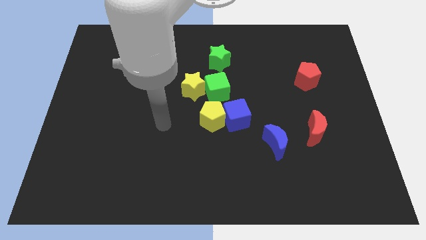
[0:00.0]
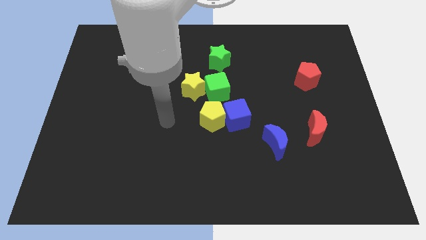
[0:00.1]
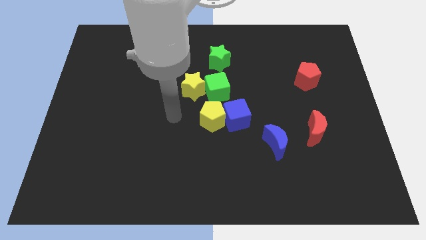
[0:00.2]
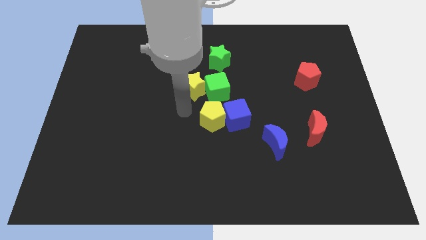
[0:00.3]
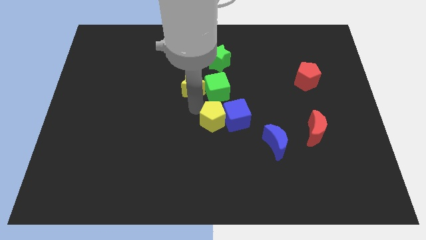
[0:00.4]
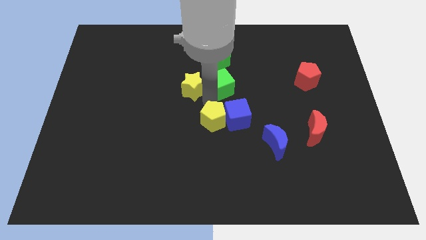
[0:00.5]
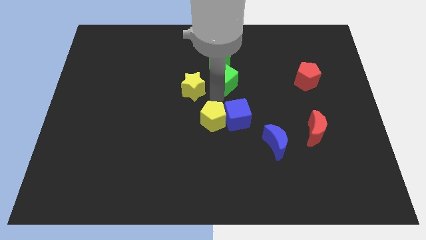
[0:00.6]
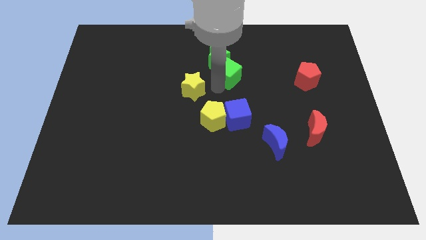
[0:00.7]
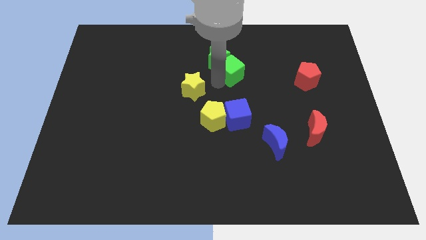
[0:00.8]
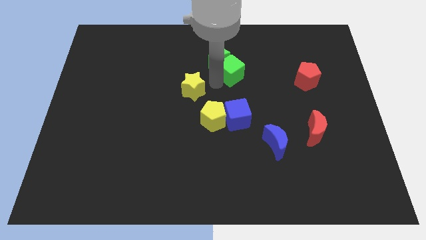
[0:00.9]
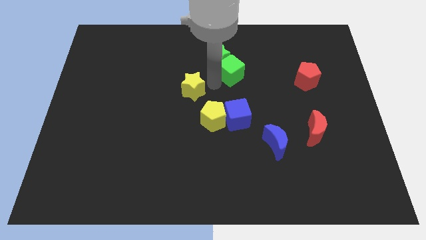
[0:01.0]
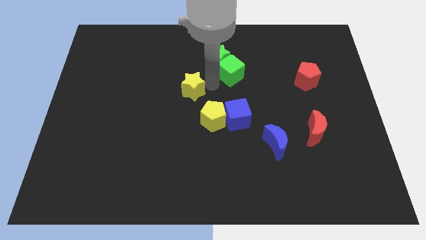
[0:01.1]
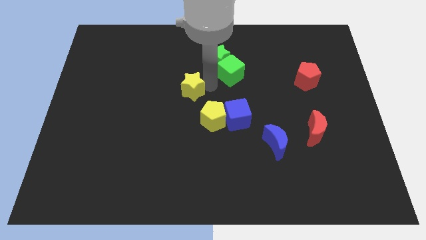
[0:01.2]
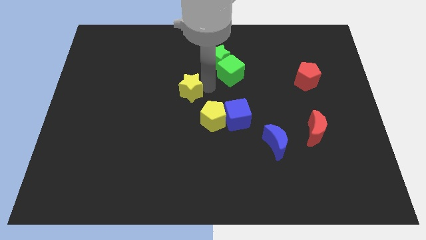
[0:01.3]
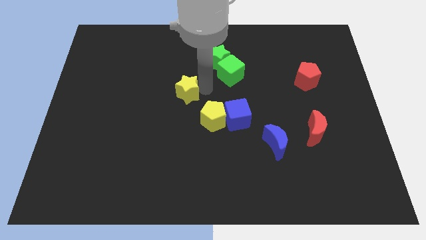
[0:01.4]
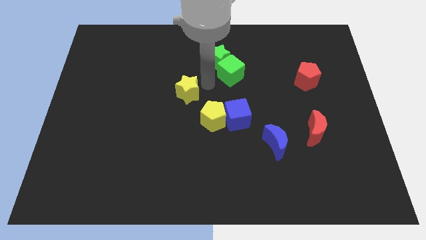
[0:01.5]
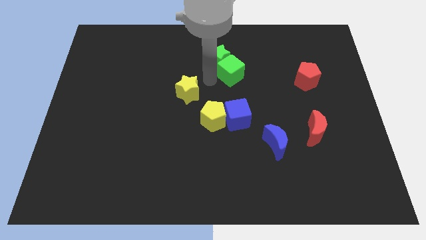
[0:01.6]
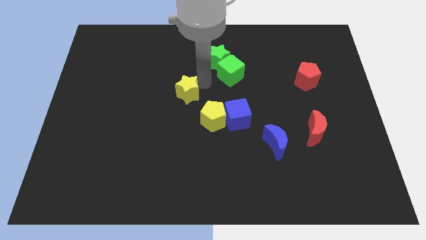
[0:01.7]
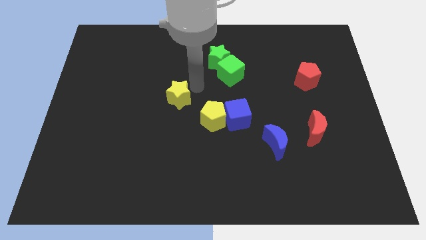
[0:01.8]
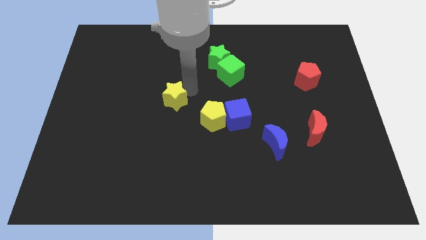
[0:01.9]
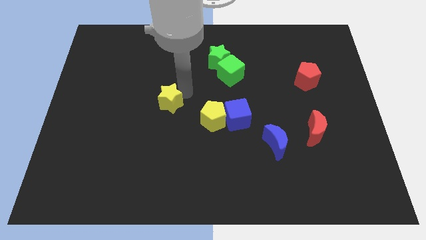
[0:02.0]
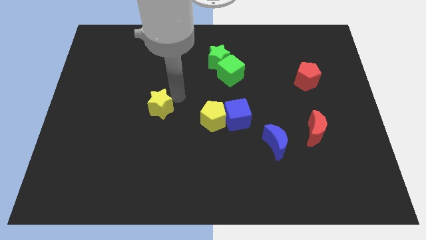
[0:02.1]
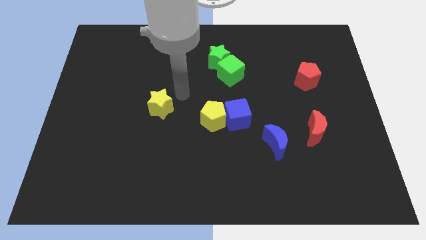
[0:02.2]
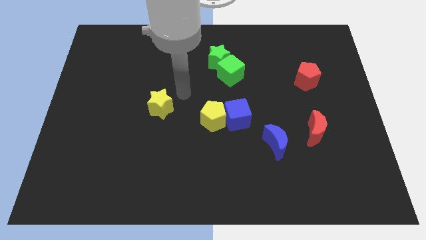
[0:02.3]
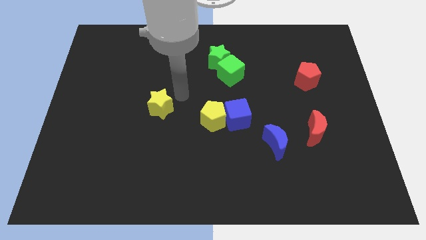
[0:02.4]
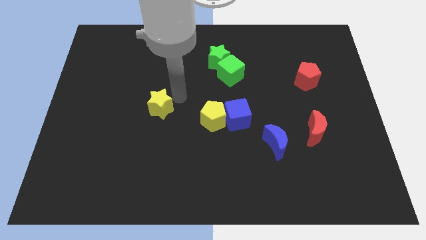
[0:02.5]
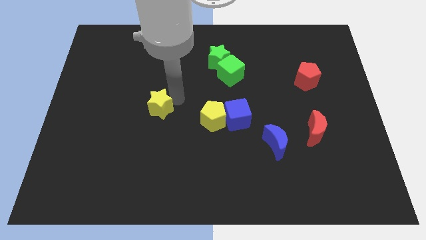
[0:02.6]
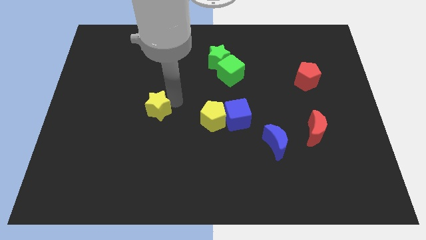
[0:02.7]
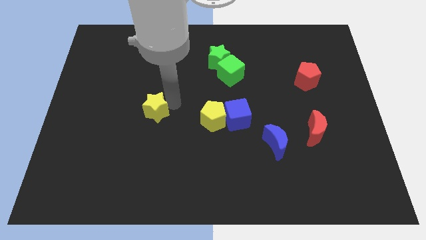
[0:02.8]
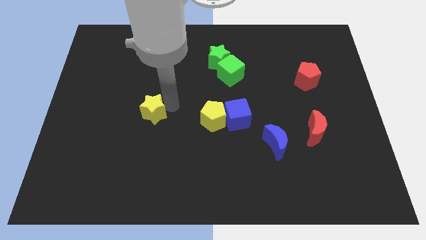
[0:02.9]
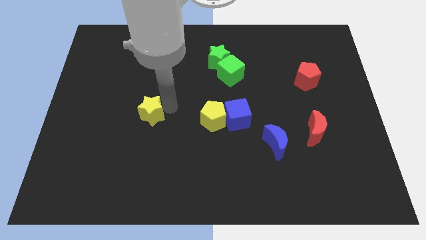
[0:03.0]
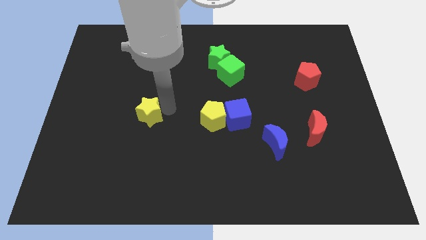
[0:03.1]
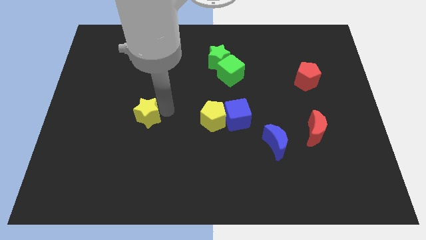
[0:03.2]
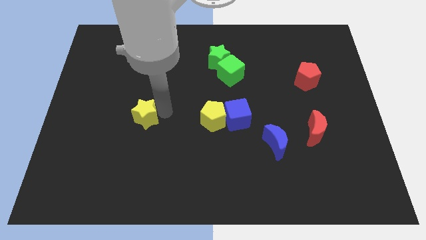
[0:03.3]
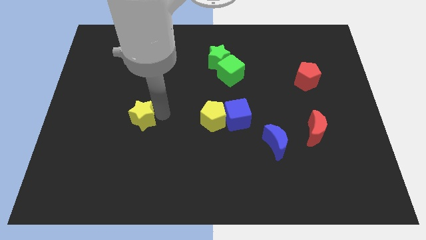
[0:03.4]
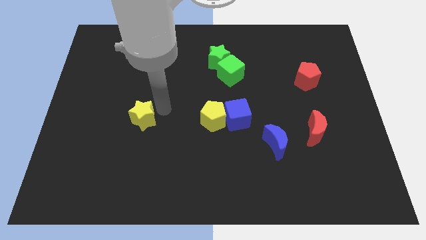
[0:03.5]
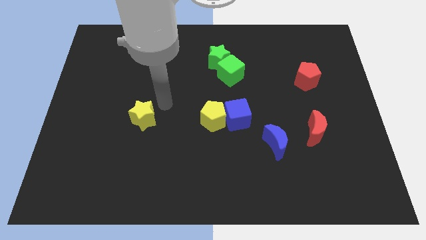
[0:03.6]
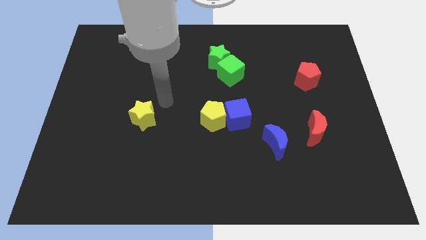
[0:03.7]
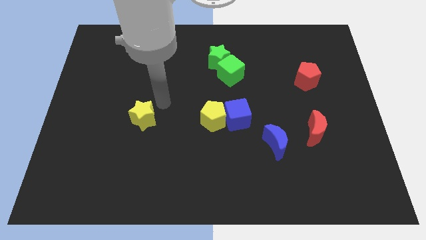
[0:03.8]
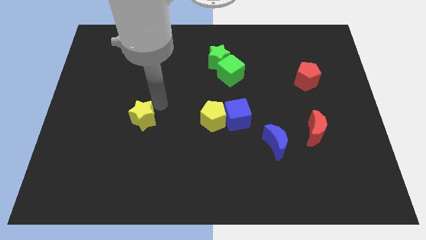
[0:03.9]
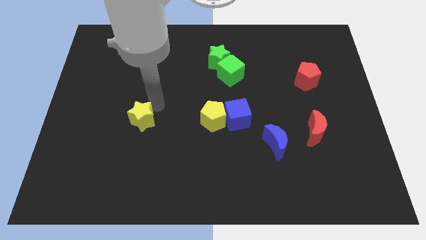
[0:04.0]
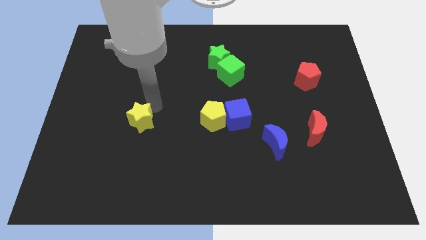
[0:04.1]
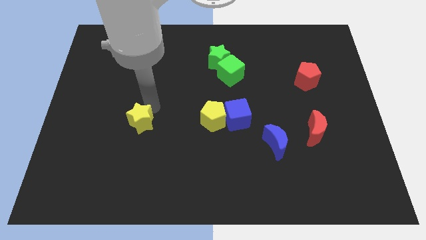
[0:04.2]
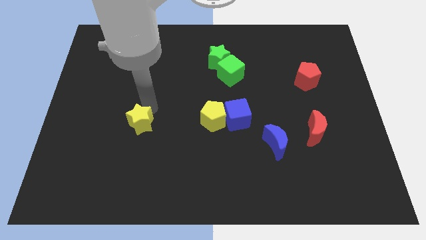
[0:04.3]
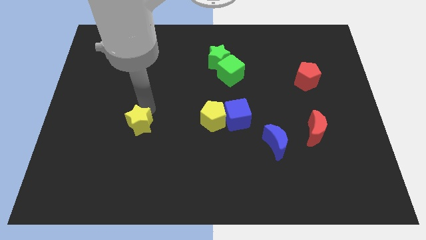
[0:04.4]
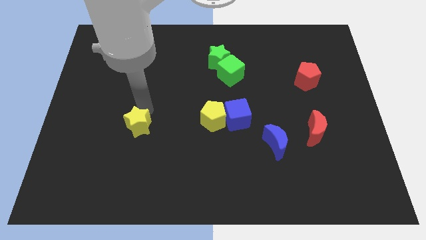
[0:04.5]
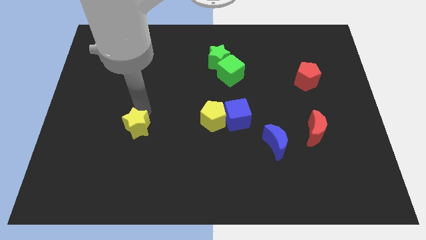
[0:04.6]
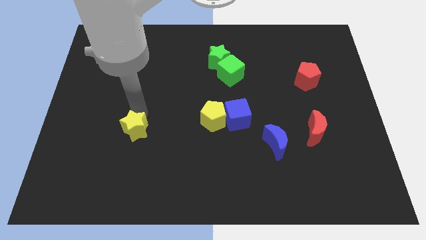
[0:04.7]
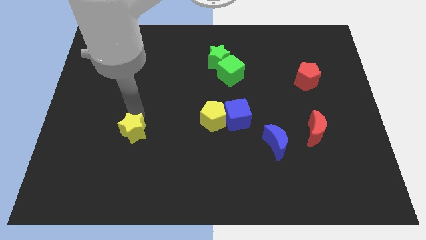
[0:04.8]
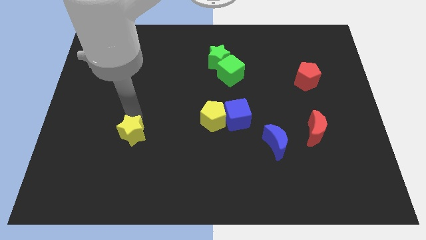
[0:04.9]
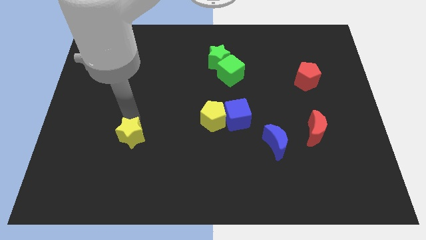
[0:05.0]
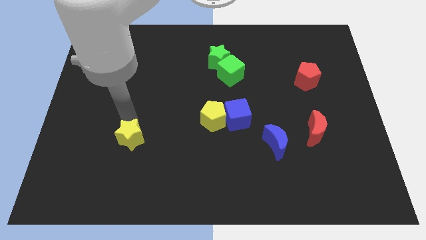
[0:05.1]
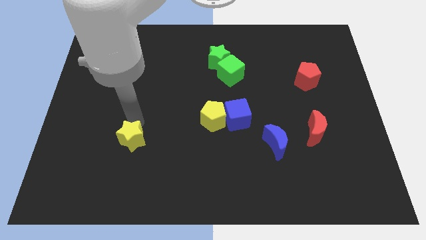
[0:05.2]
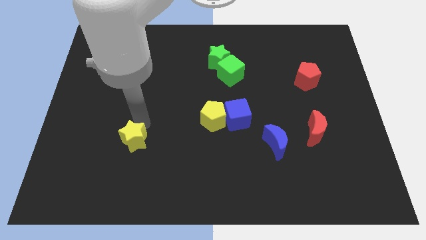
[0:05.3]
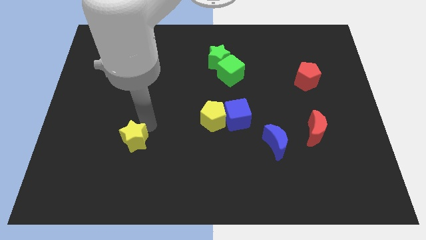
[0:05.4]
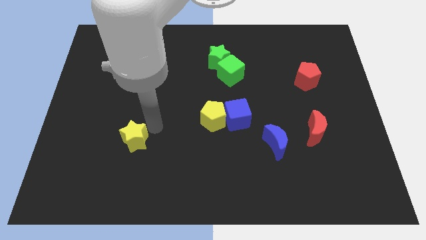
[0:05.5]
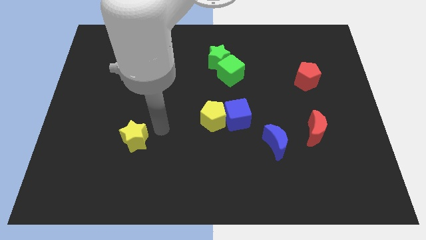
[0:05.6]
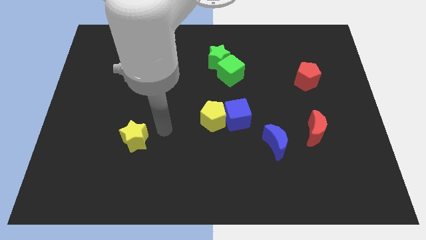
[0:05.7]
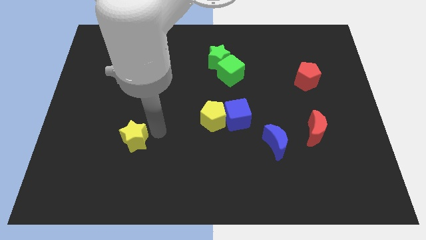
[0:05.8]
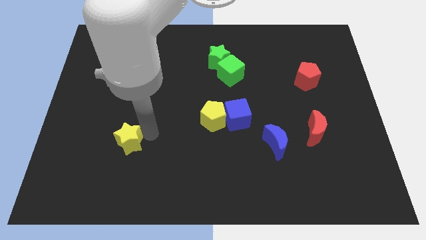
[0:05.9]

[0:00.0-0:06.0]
push the yellow star downwards and left diagonally

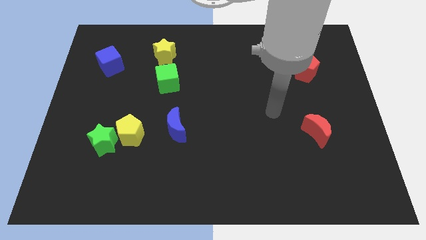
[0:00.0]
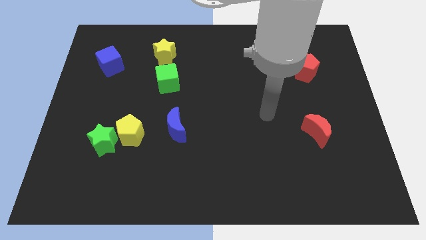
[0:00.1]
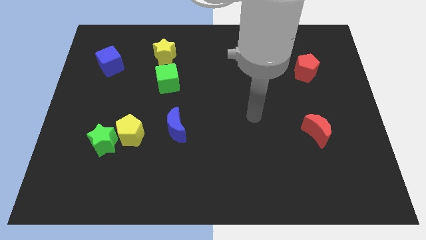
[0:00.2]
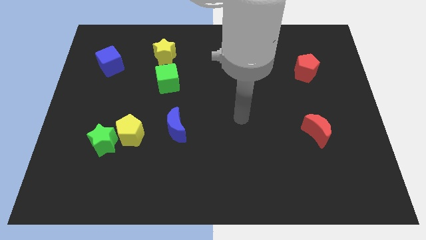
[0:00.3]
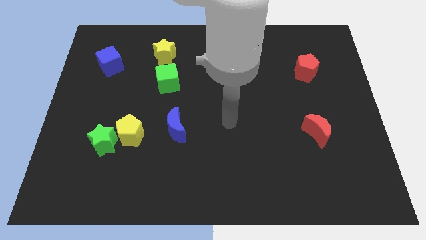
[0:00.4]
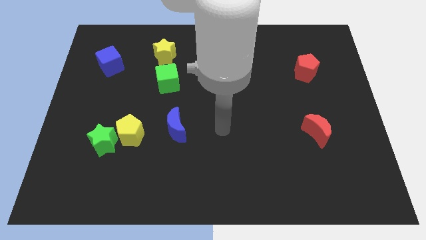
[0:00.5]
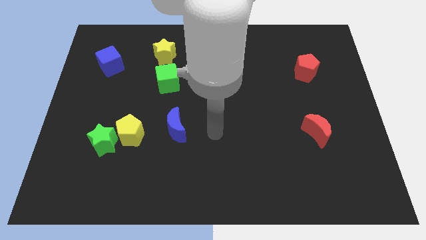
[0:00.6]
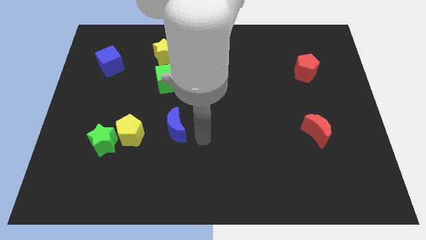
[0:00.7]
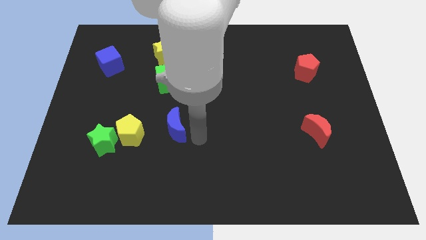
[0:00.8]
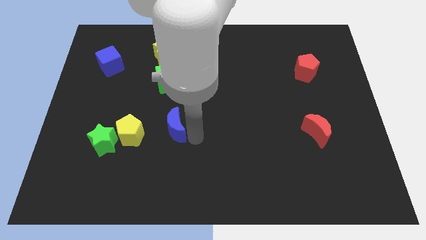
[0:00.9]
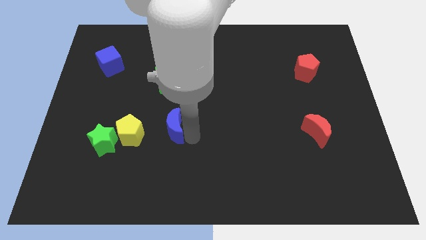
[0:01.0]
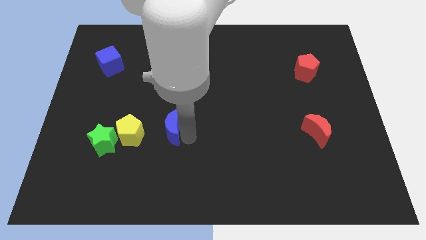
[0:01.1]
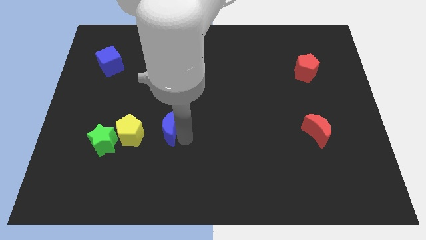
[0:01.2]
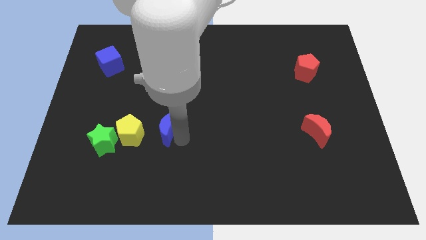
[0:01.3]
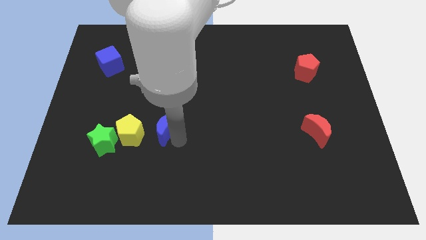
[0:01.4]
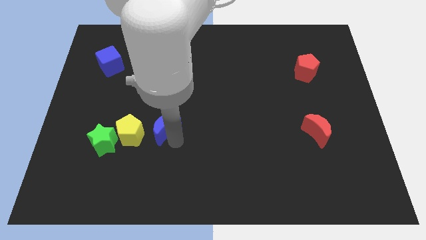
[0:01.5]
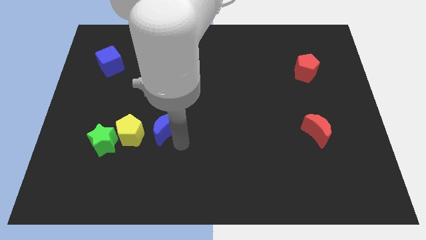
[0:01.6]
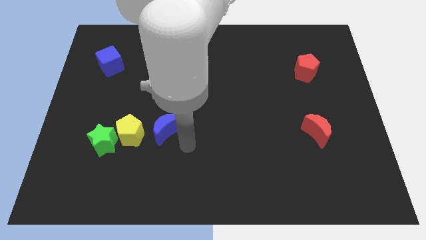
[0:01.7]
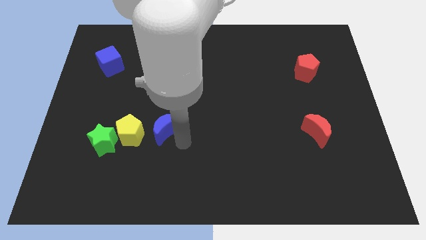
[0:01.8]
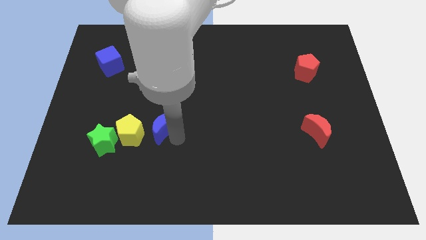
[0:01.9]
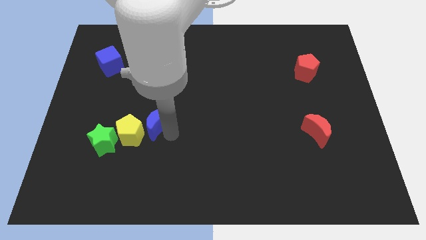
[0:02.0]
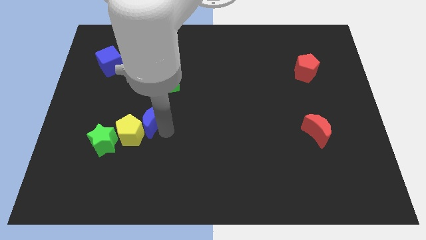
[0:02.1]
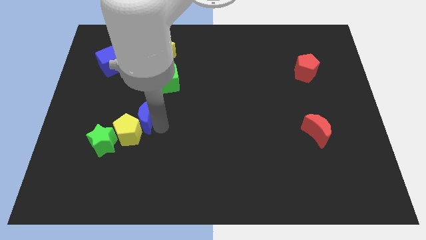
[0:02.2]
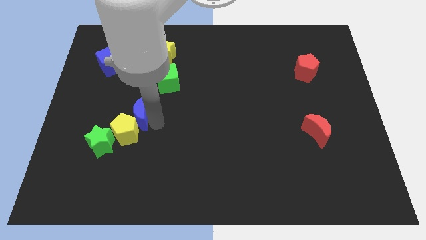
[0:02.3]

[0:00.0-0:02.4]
slide the blue moon to the left somewhat
